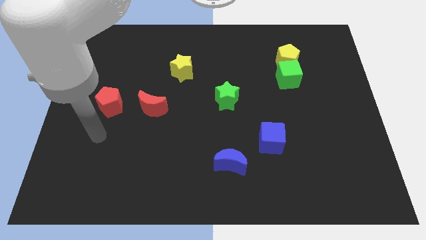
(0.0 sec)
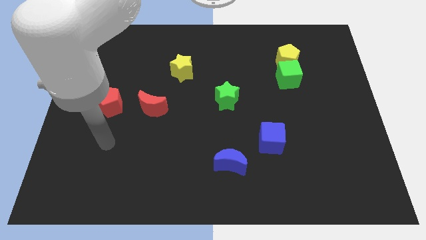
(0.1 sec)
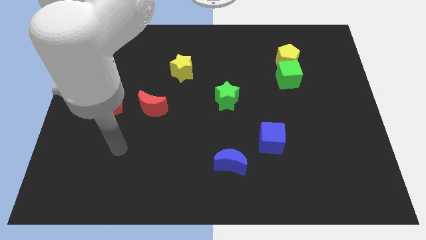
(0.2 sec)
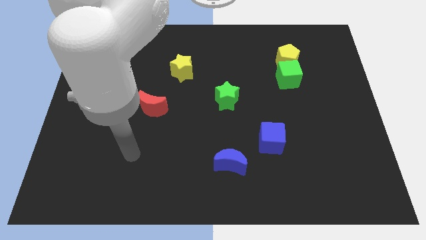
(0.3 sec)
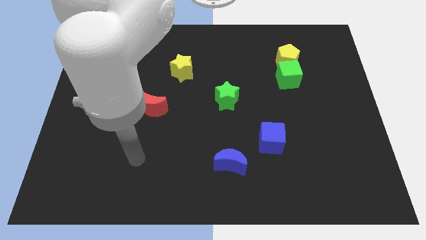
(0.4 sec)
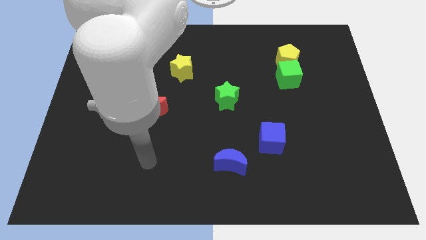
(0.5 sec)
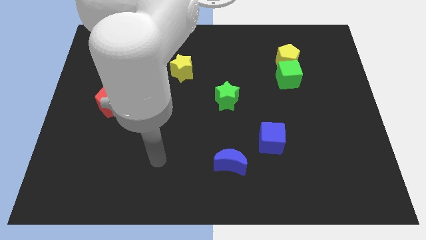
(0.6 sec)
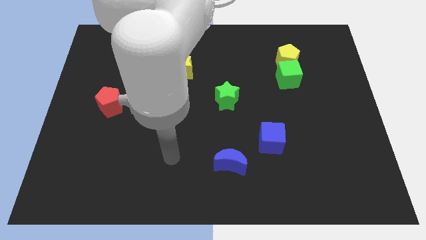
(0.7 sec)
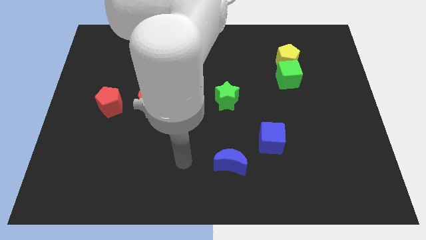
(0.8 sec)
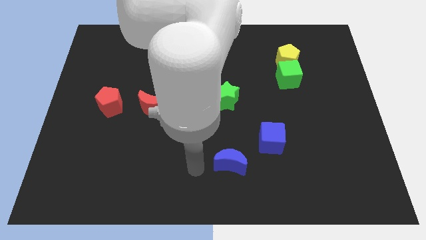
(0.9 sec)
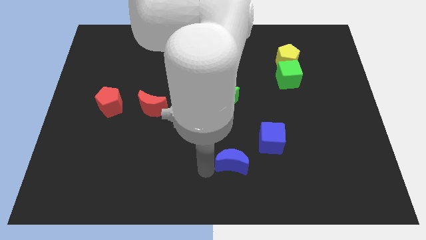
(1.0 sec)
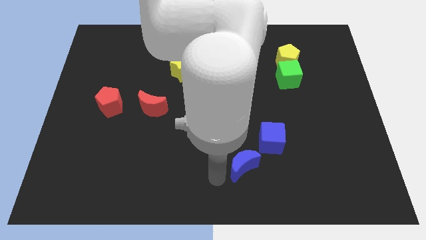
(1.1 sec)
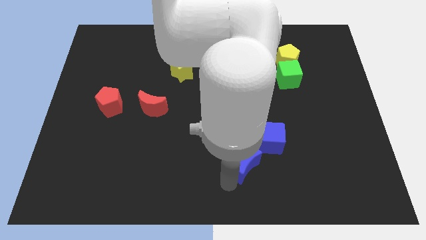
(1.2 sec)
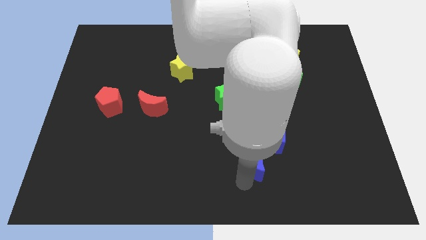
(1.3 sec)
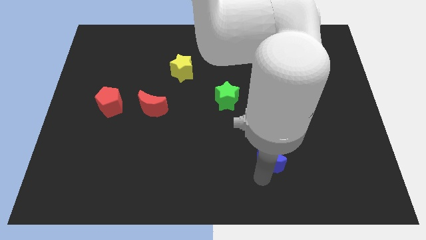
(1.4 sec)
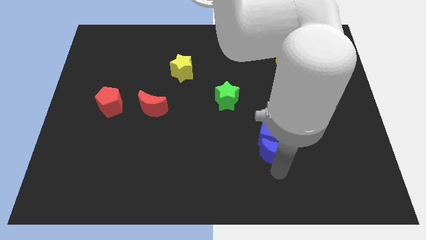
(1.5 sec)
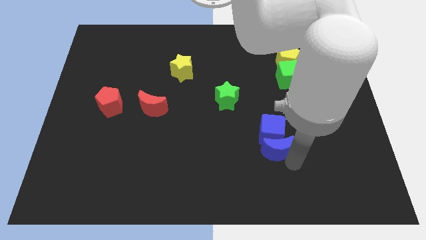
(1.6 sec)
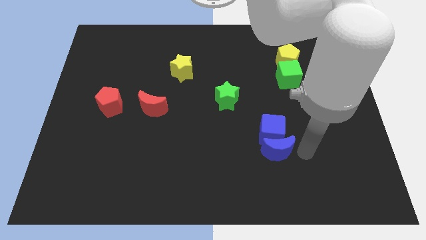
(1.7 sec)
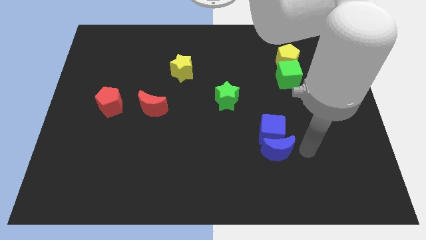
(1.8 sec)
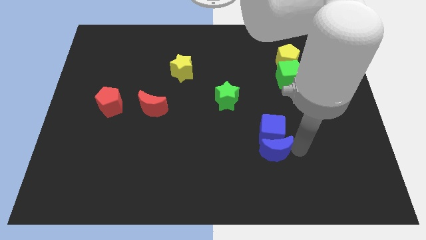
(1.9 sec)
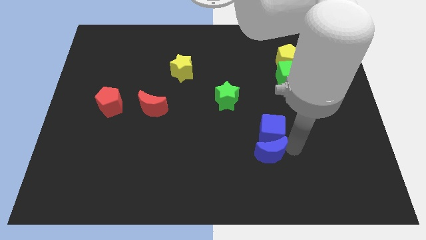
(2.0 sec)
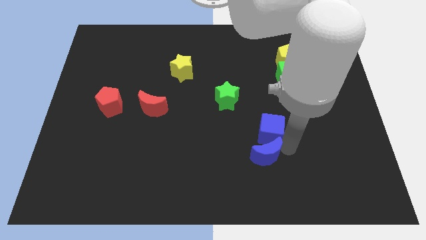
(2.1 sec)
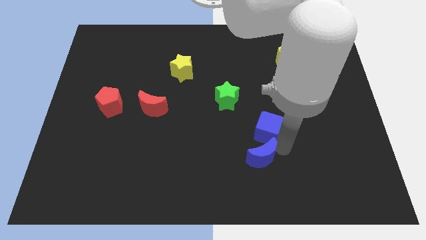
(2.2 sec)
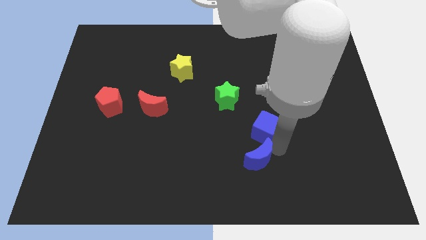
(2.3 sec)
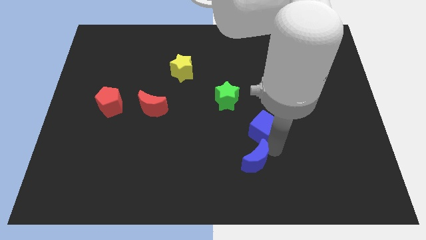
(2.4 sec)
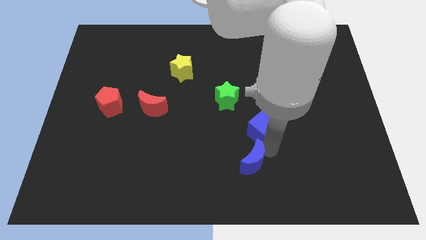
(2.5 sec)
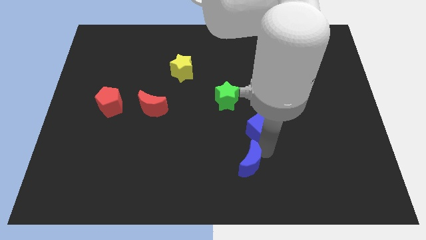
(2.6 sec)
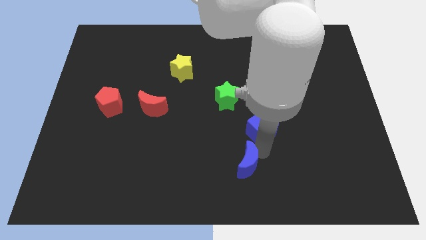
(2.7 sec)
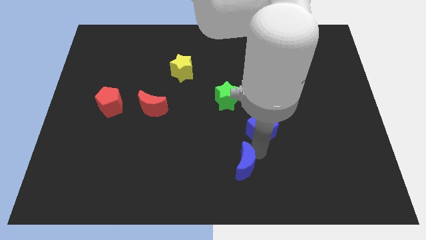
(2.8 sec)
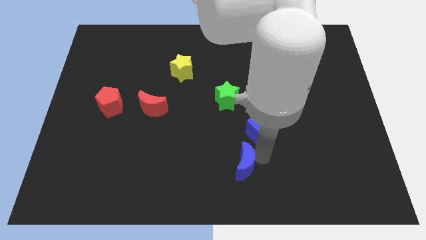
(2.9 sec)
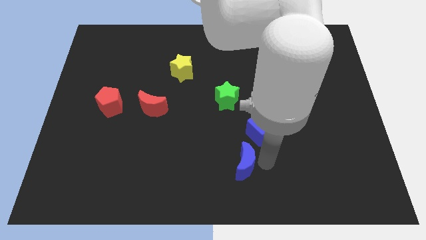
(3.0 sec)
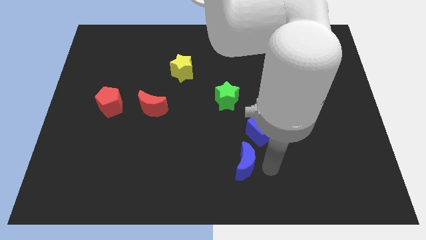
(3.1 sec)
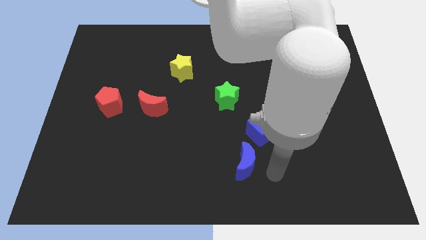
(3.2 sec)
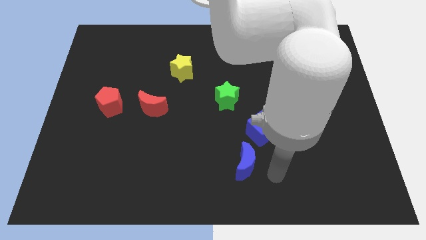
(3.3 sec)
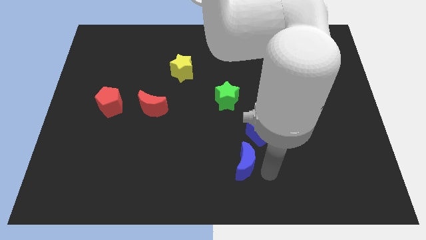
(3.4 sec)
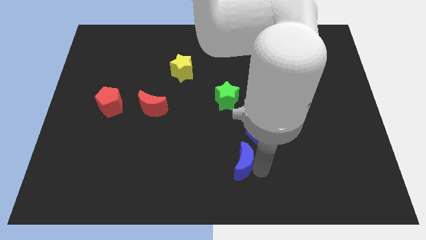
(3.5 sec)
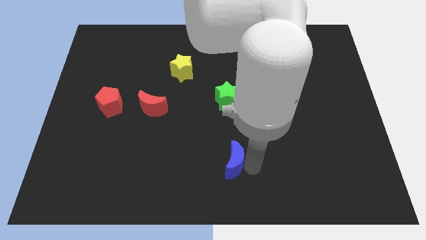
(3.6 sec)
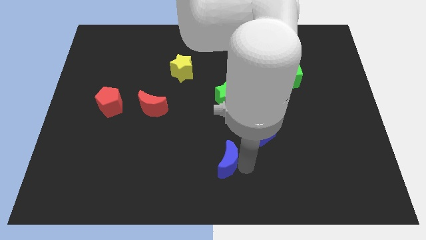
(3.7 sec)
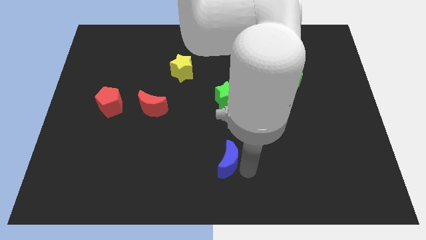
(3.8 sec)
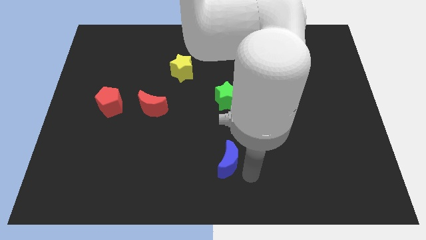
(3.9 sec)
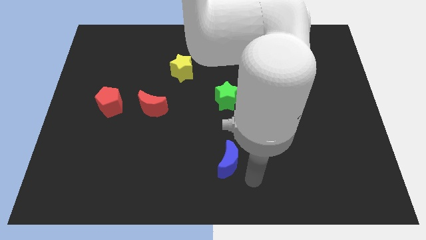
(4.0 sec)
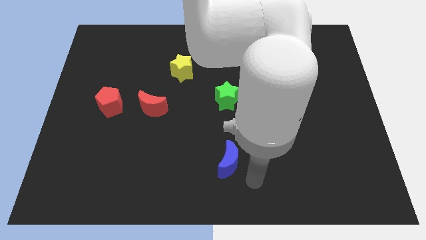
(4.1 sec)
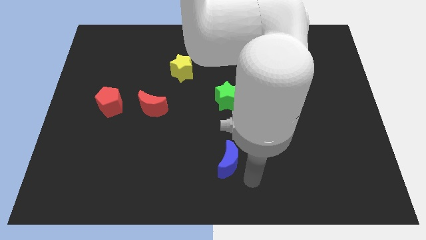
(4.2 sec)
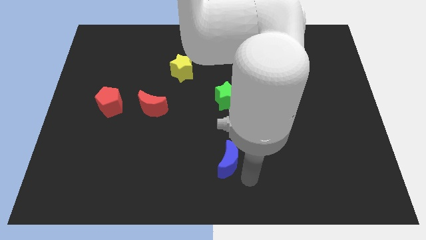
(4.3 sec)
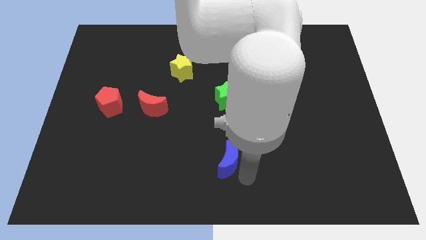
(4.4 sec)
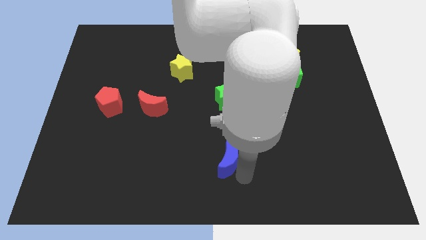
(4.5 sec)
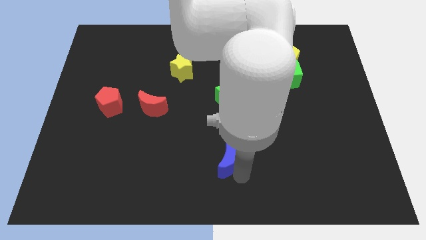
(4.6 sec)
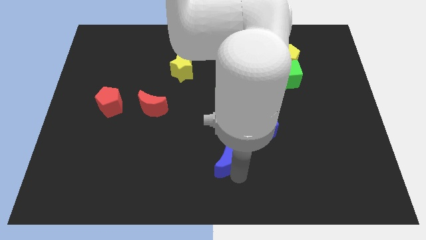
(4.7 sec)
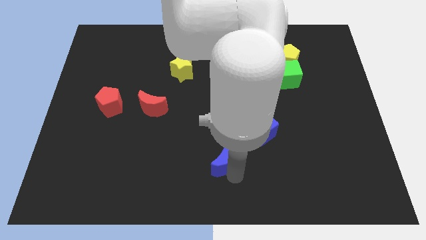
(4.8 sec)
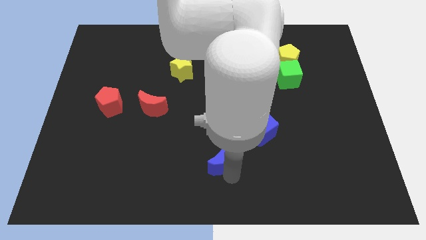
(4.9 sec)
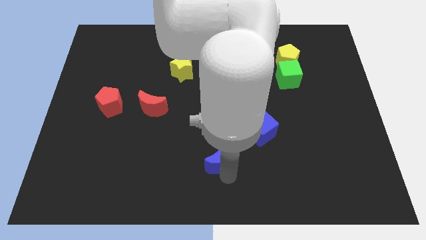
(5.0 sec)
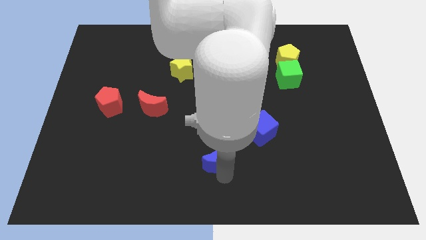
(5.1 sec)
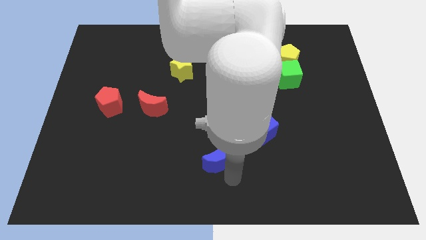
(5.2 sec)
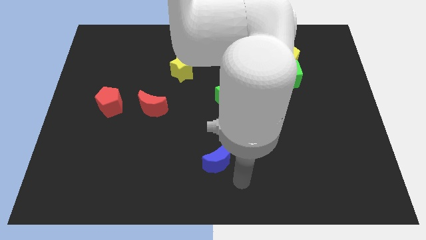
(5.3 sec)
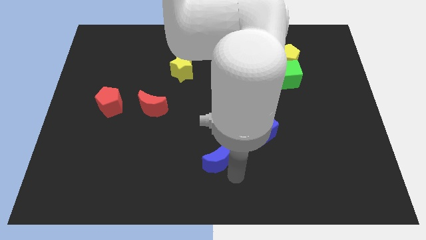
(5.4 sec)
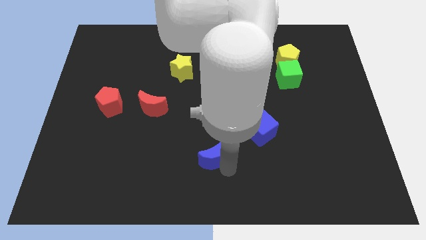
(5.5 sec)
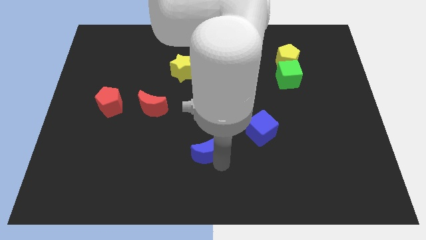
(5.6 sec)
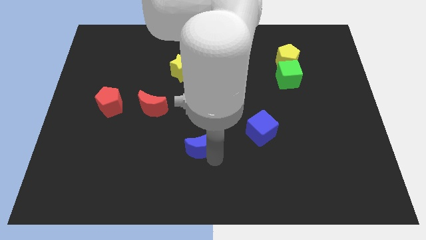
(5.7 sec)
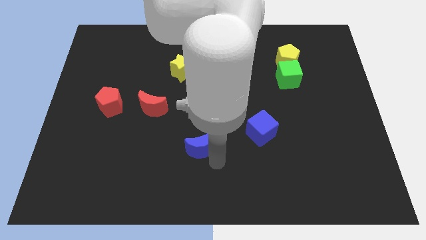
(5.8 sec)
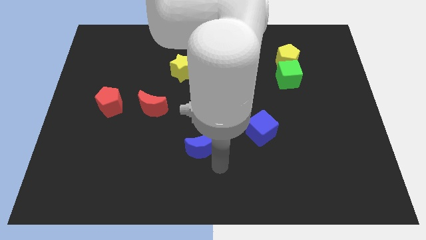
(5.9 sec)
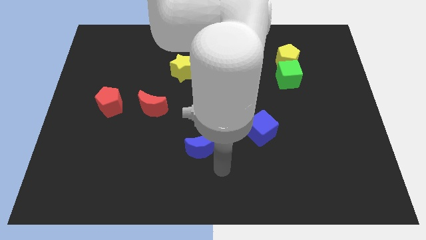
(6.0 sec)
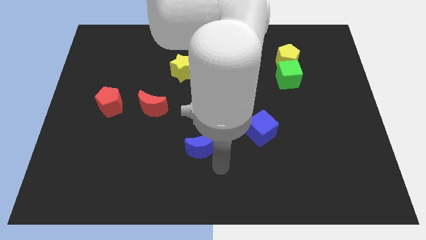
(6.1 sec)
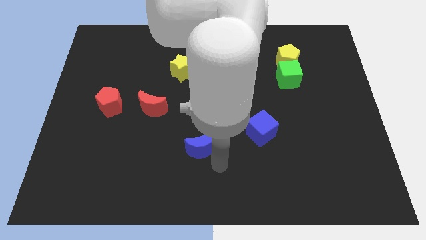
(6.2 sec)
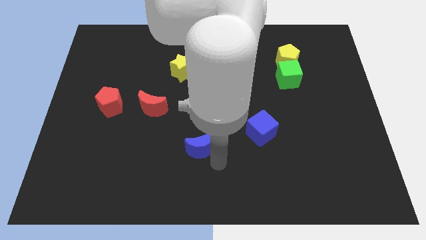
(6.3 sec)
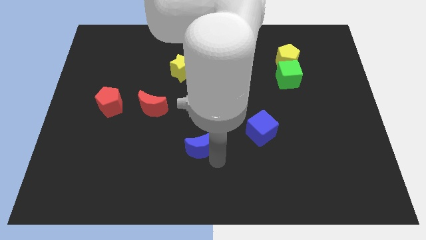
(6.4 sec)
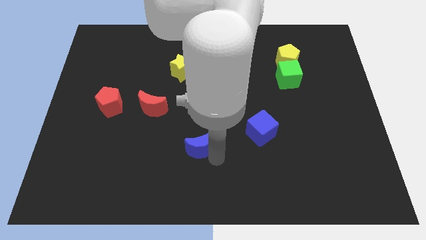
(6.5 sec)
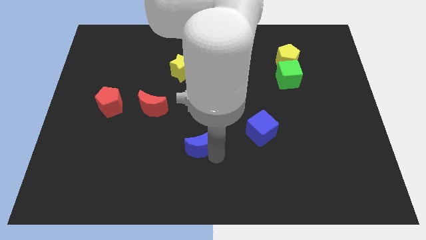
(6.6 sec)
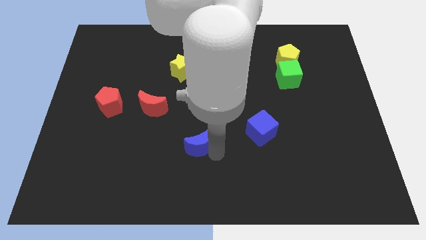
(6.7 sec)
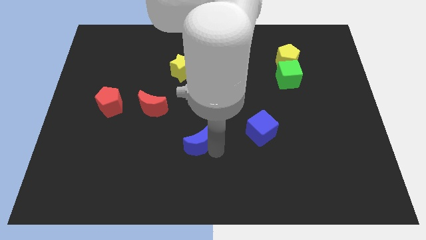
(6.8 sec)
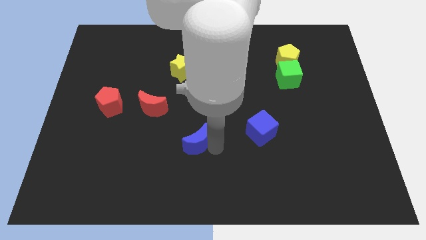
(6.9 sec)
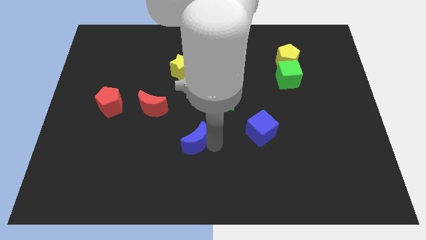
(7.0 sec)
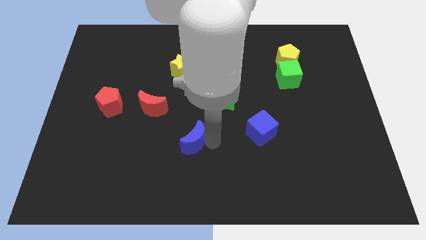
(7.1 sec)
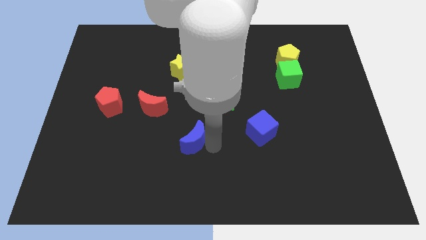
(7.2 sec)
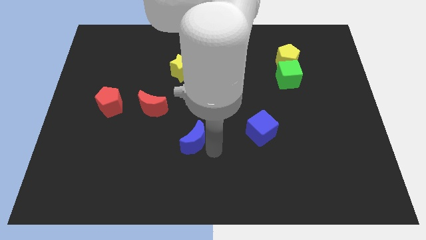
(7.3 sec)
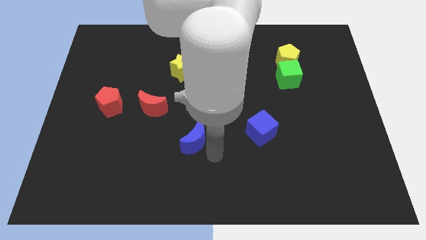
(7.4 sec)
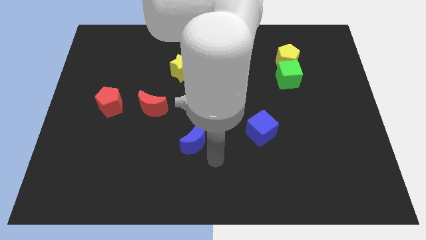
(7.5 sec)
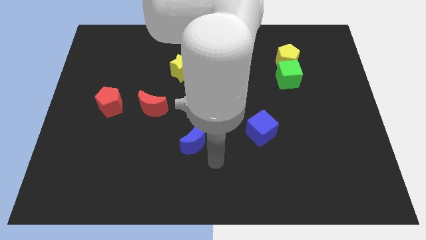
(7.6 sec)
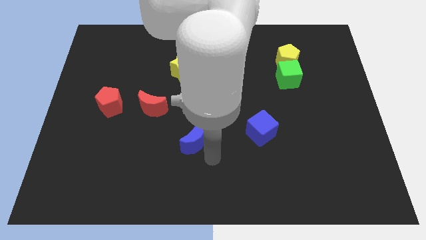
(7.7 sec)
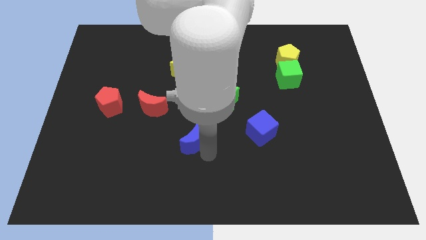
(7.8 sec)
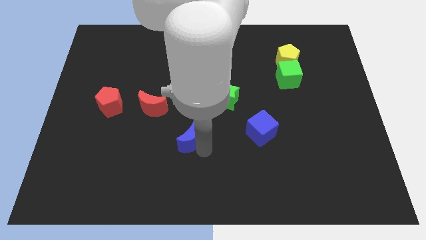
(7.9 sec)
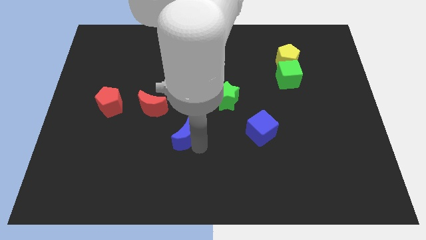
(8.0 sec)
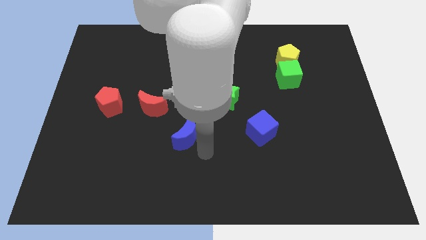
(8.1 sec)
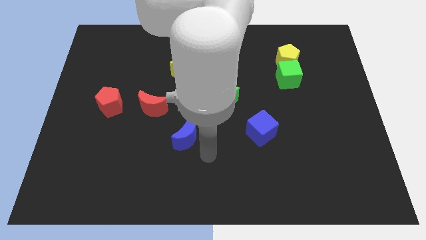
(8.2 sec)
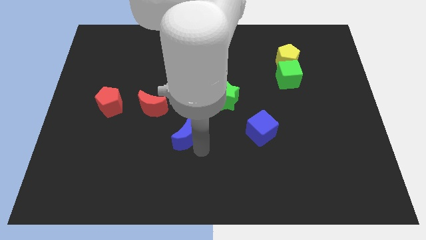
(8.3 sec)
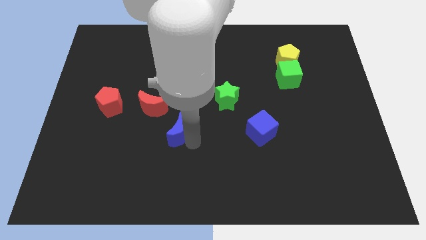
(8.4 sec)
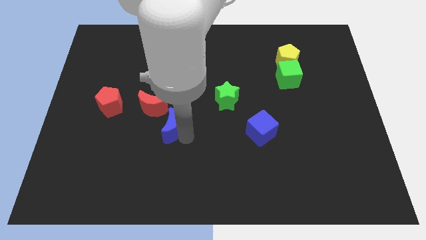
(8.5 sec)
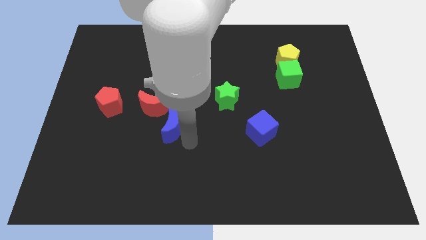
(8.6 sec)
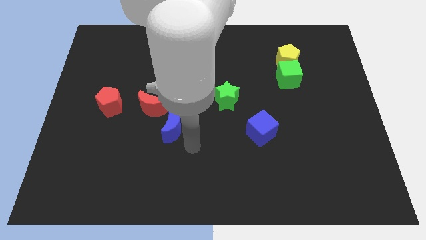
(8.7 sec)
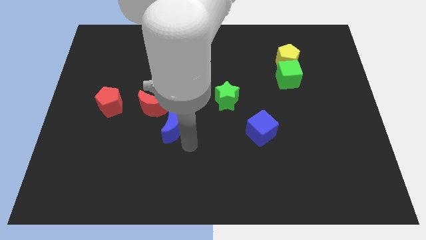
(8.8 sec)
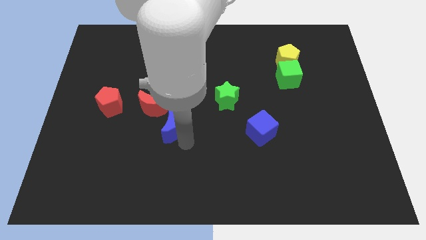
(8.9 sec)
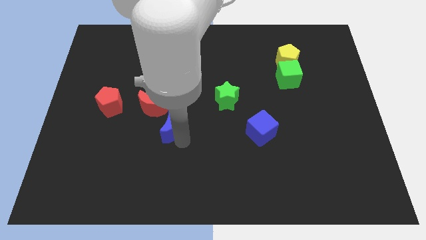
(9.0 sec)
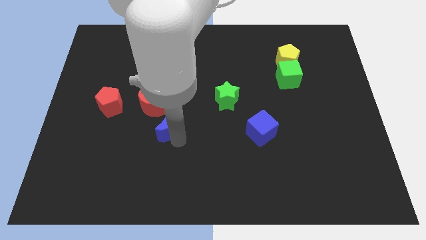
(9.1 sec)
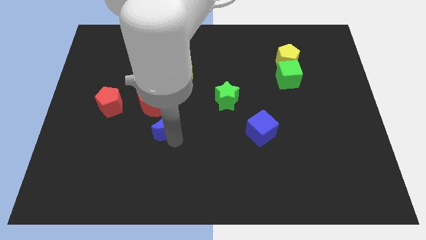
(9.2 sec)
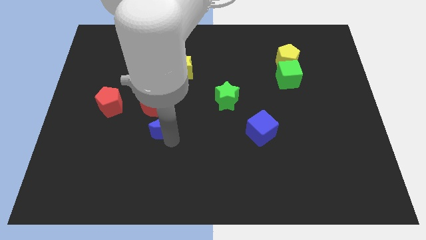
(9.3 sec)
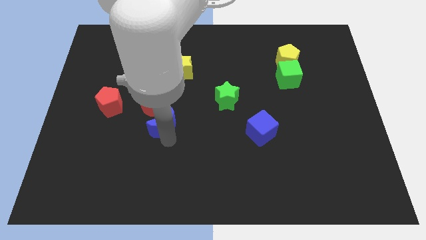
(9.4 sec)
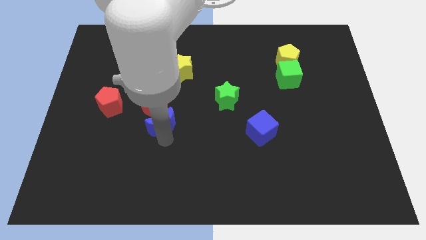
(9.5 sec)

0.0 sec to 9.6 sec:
push the blue moon next to the red moon
